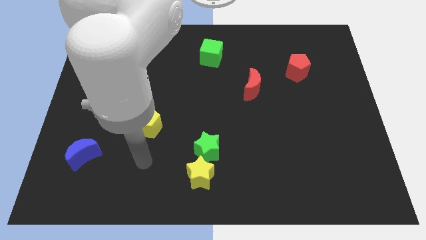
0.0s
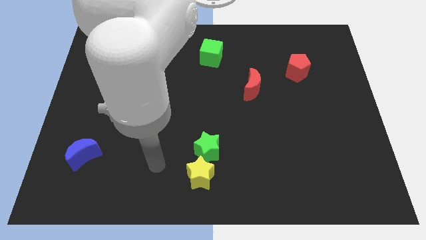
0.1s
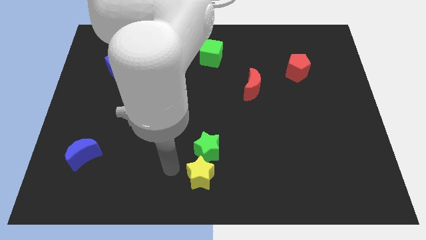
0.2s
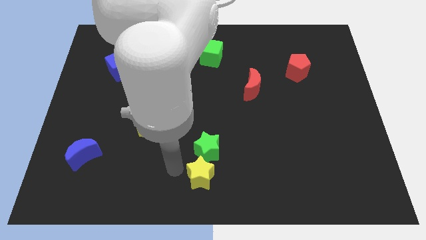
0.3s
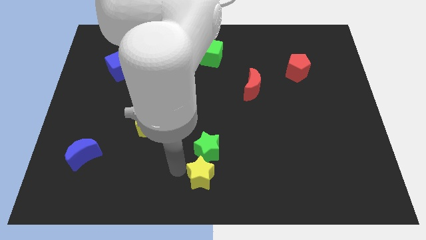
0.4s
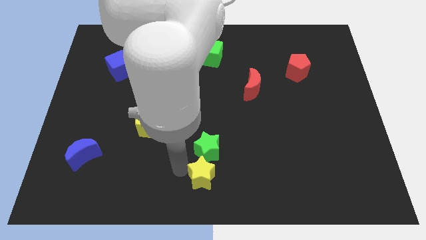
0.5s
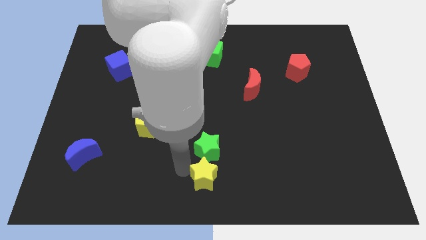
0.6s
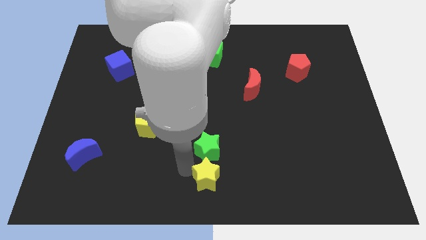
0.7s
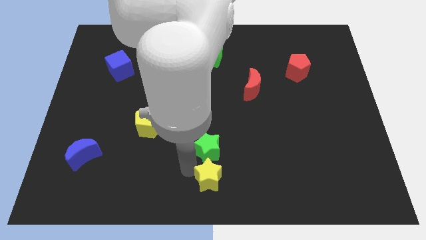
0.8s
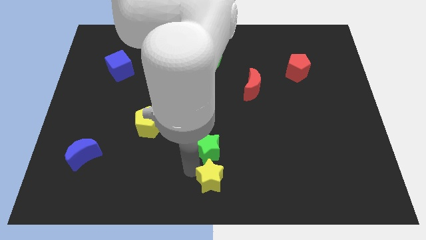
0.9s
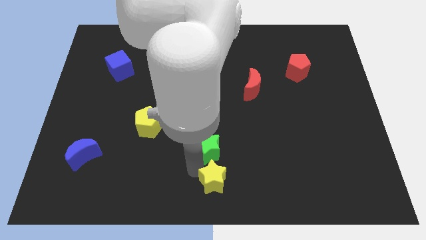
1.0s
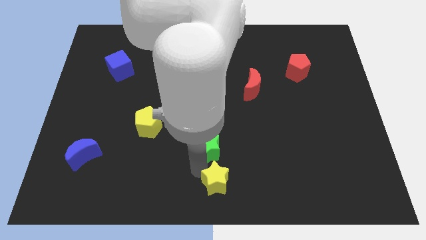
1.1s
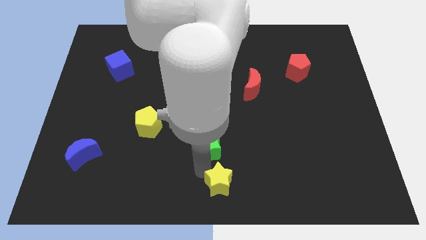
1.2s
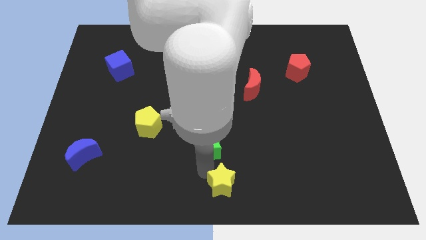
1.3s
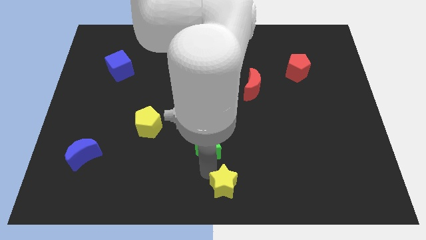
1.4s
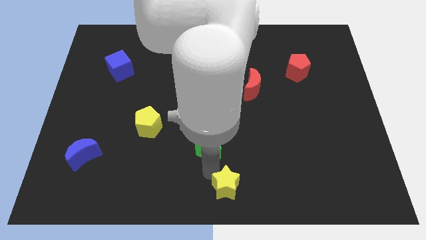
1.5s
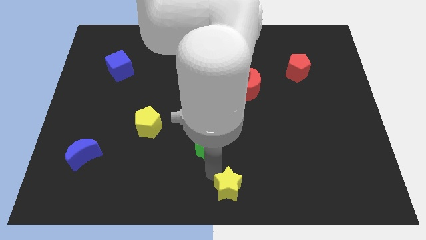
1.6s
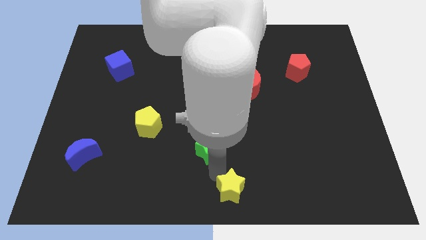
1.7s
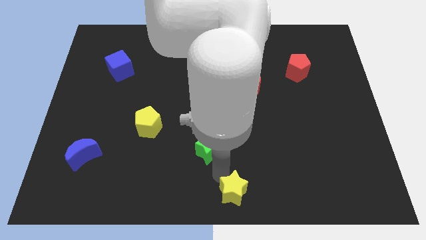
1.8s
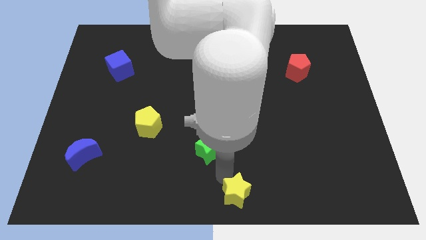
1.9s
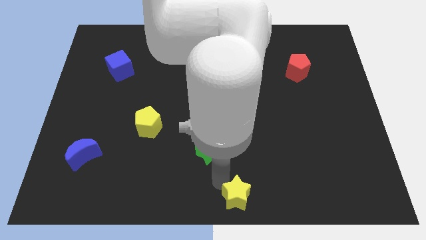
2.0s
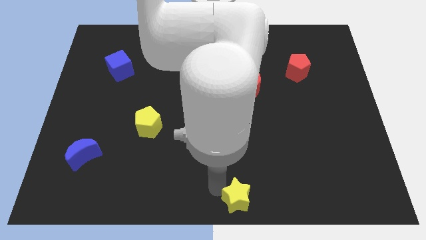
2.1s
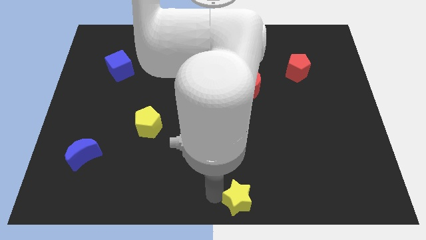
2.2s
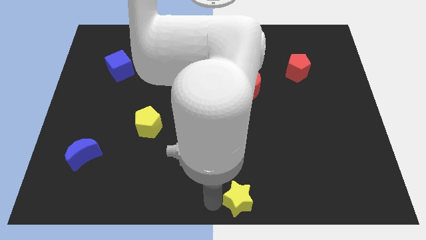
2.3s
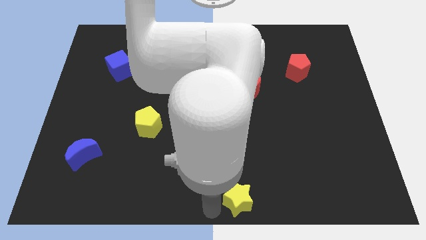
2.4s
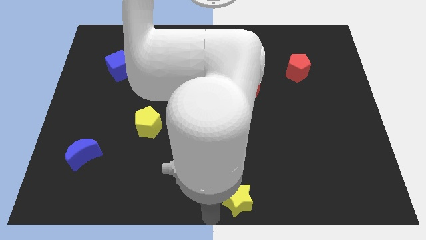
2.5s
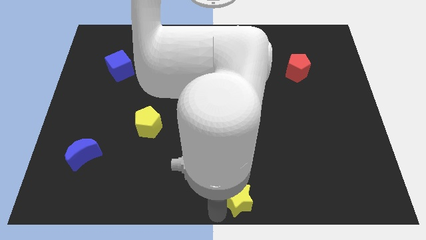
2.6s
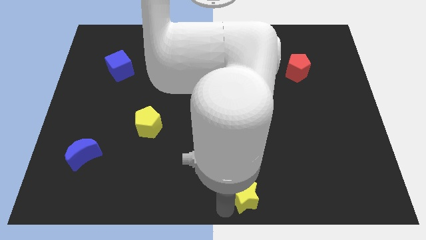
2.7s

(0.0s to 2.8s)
slide the yellow star a bit right

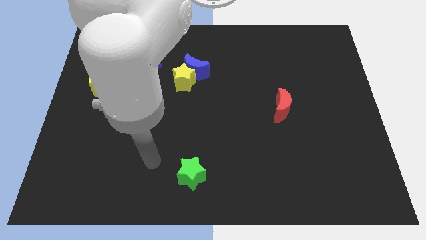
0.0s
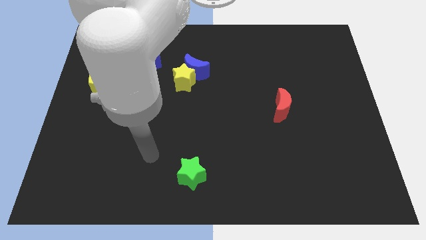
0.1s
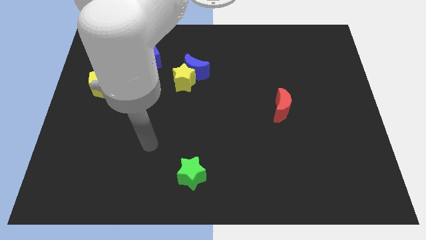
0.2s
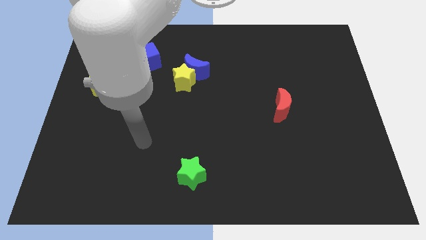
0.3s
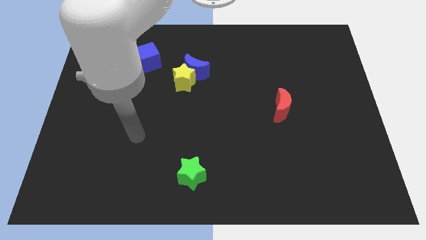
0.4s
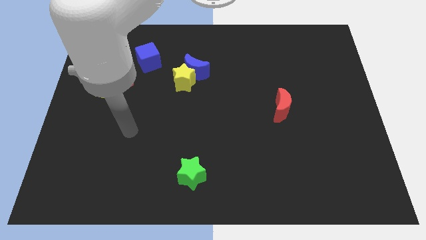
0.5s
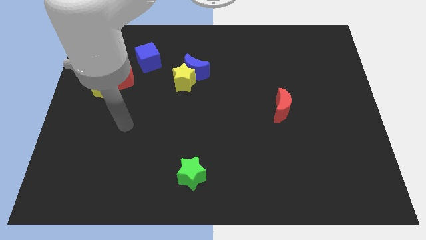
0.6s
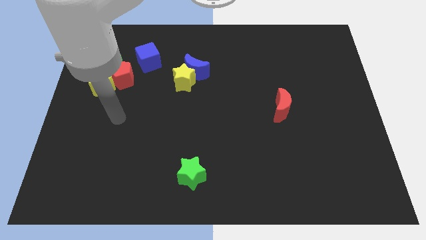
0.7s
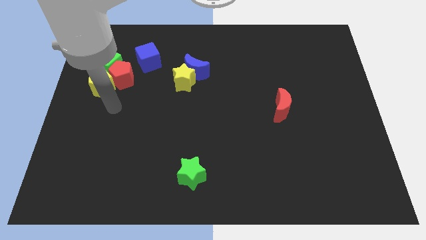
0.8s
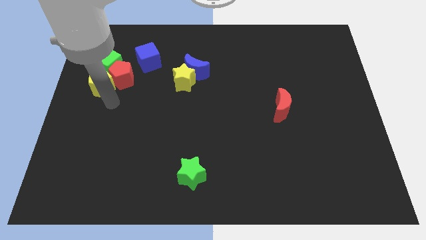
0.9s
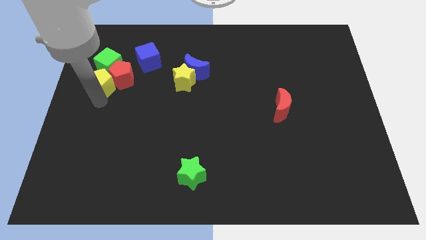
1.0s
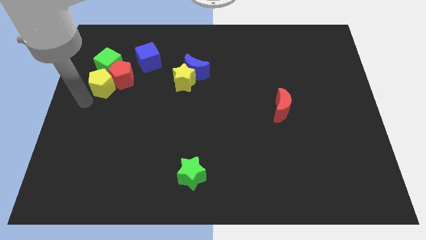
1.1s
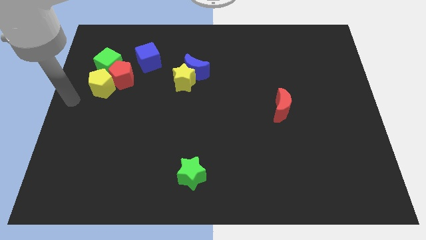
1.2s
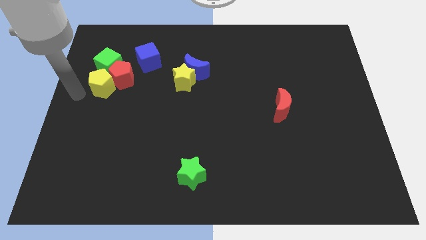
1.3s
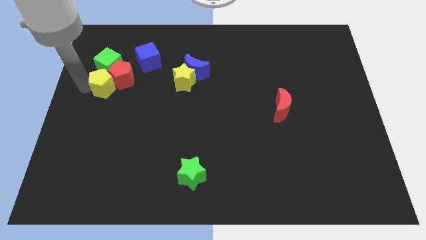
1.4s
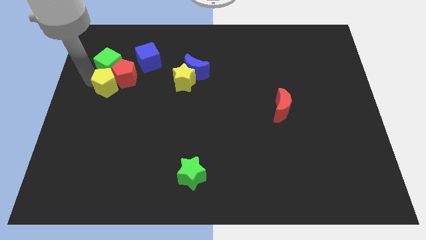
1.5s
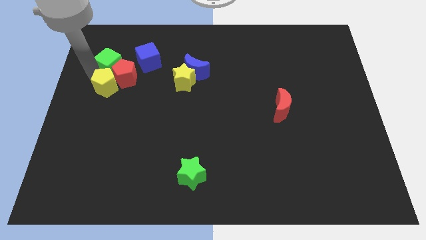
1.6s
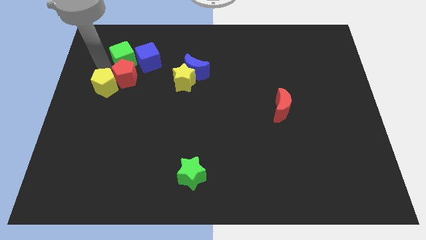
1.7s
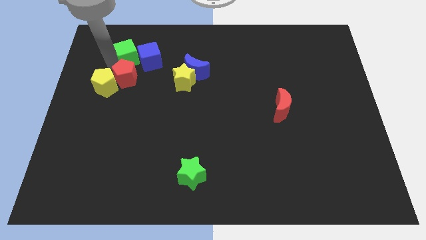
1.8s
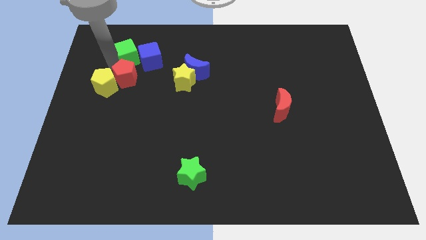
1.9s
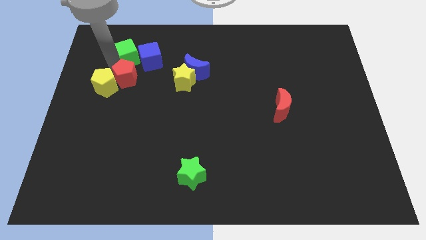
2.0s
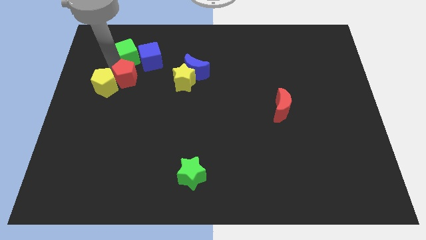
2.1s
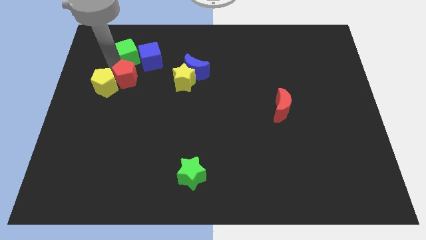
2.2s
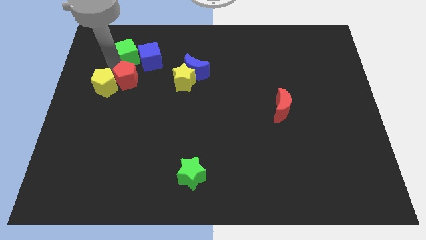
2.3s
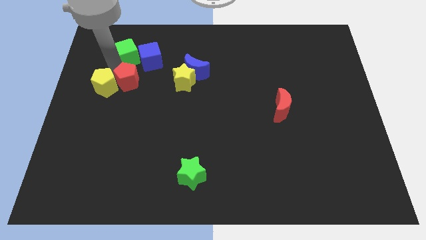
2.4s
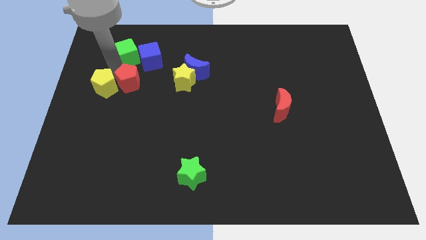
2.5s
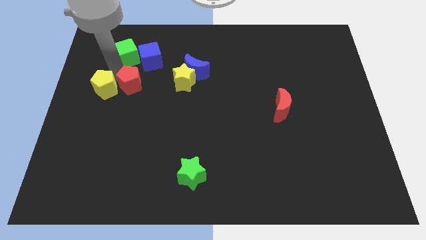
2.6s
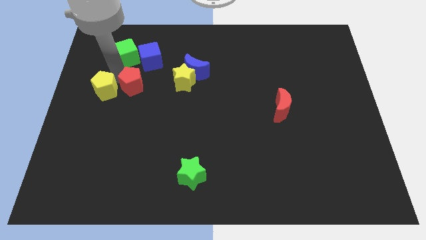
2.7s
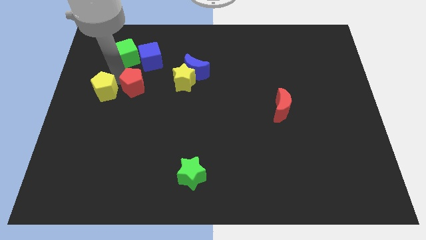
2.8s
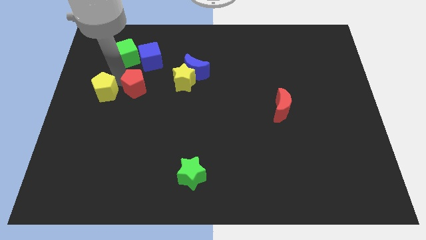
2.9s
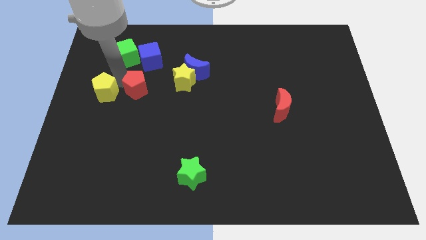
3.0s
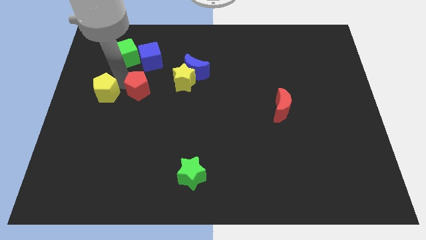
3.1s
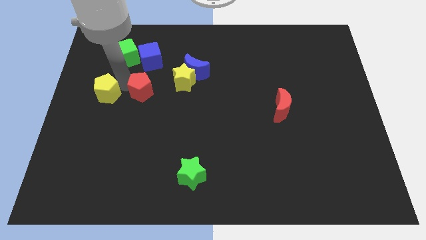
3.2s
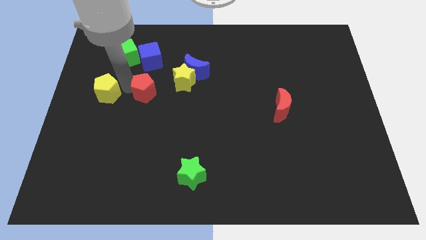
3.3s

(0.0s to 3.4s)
push the red pentagon a little diagonally down and right

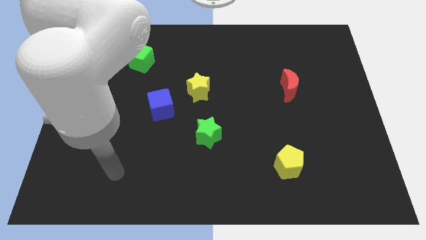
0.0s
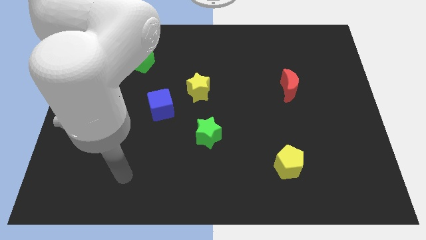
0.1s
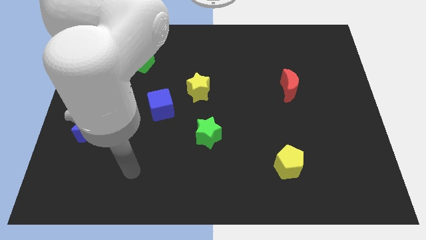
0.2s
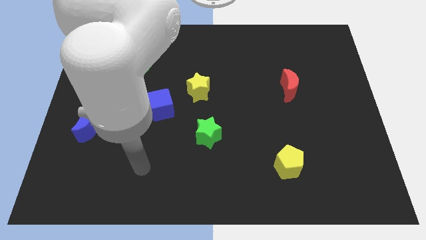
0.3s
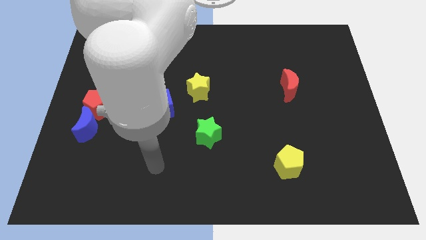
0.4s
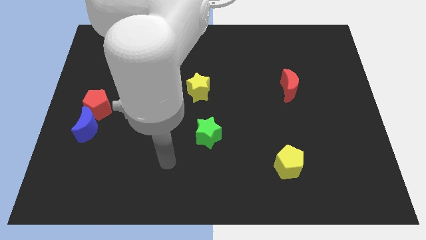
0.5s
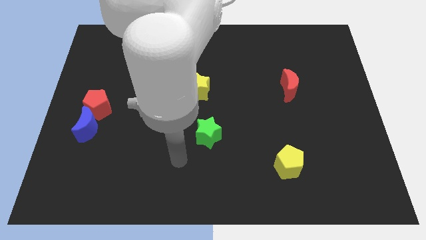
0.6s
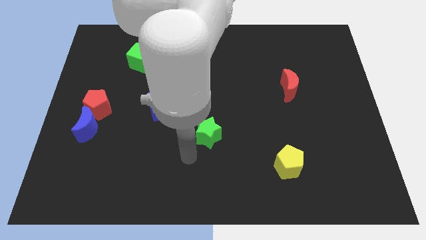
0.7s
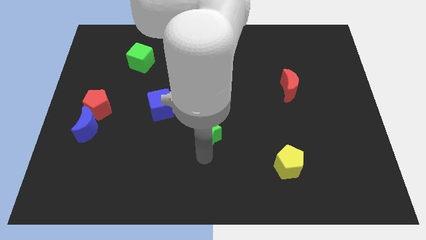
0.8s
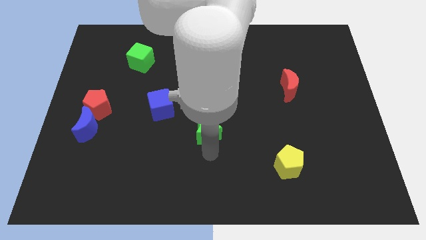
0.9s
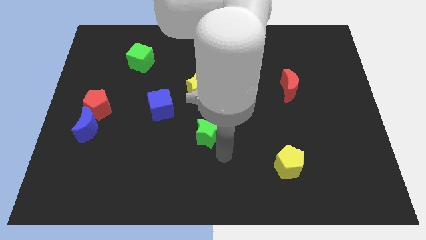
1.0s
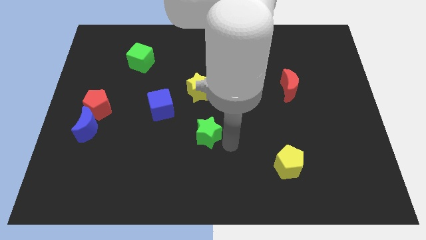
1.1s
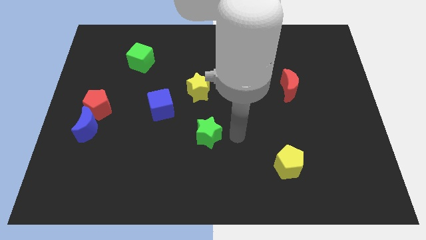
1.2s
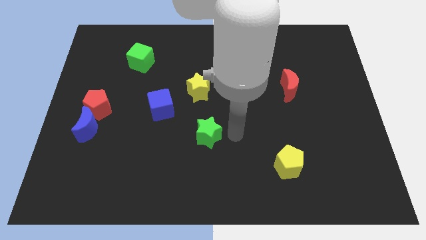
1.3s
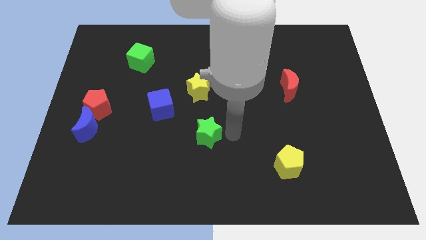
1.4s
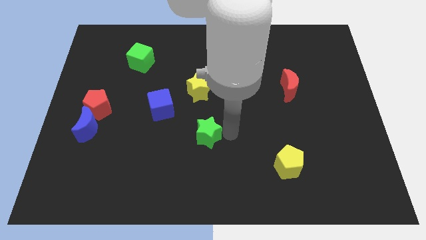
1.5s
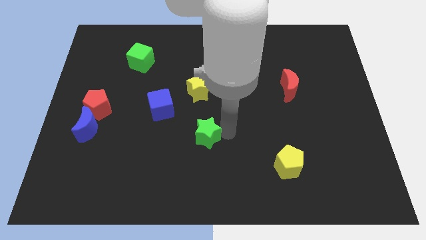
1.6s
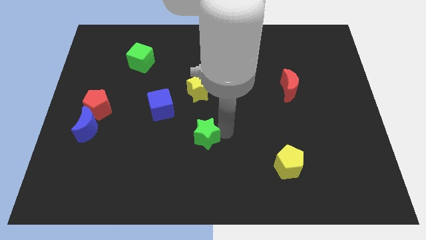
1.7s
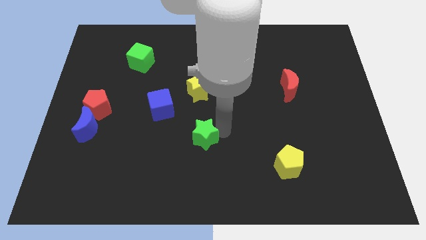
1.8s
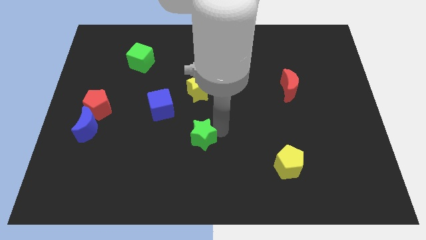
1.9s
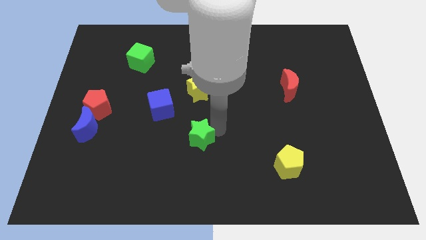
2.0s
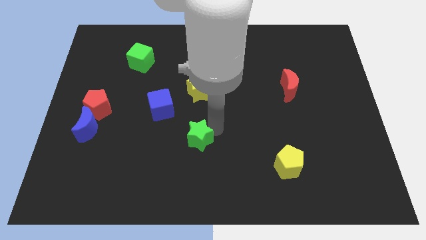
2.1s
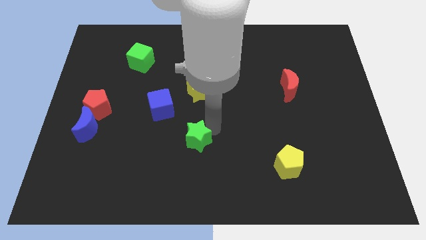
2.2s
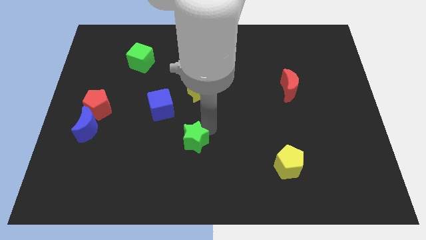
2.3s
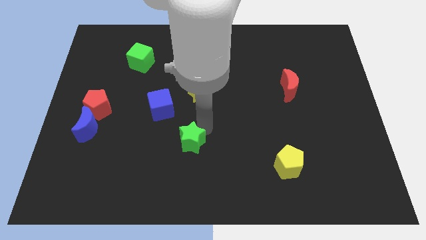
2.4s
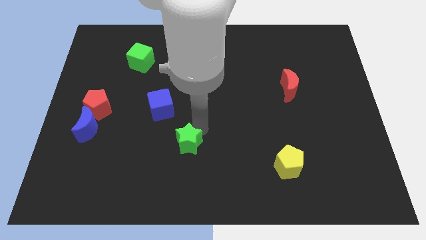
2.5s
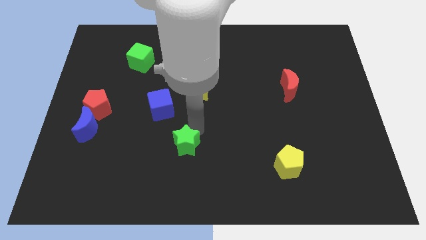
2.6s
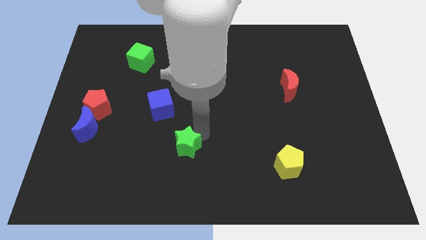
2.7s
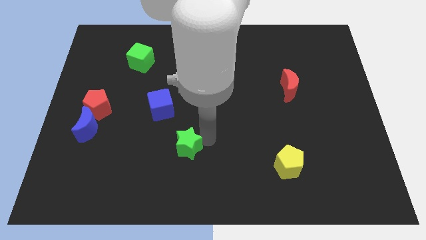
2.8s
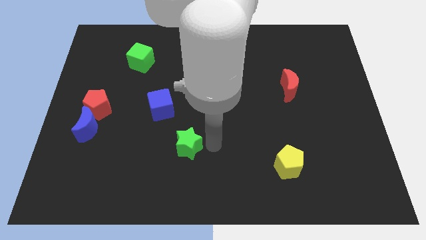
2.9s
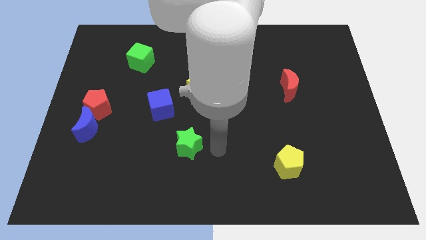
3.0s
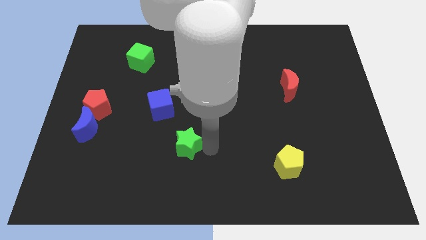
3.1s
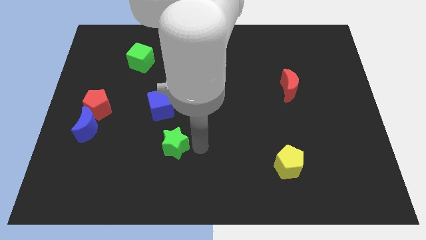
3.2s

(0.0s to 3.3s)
push the green star to the left a bit
